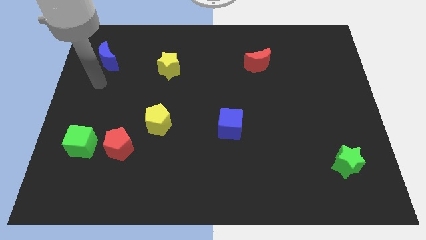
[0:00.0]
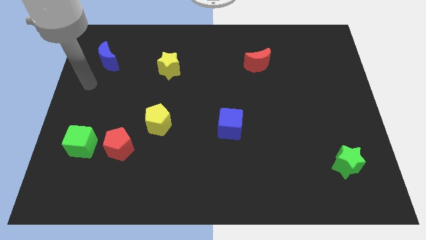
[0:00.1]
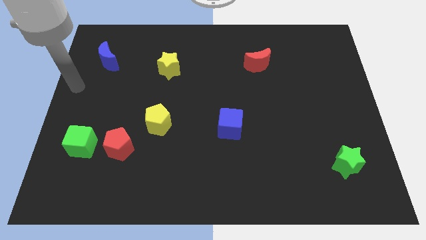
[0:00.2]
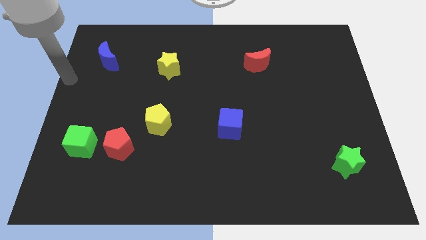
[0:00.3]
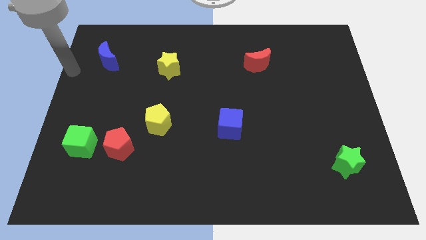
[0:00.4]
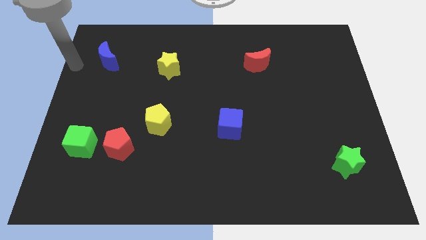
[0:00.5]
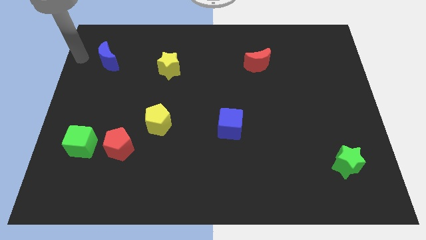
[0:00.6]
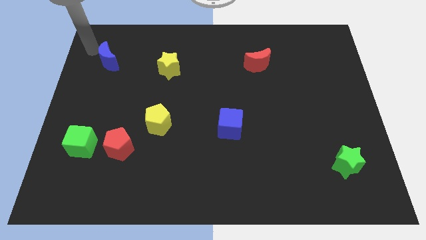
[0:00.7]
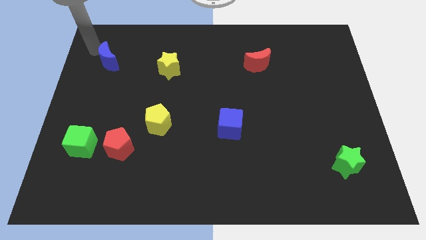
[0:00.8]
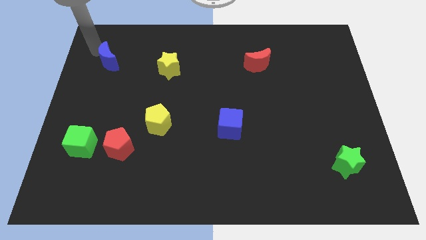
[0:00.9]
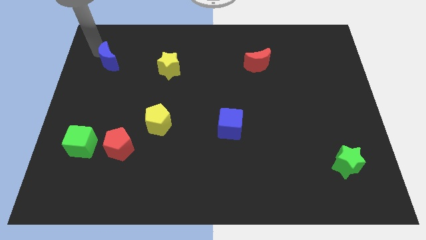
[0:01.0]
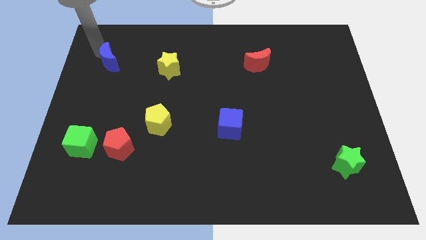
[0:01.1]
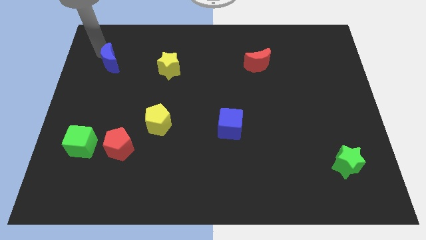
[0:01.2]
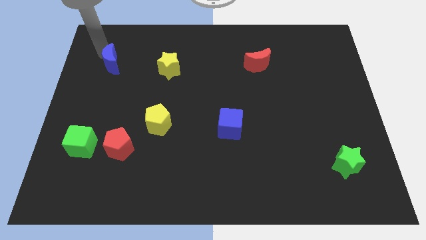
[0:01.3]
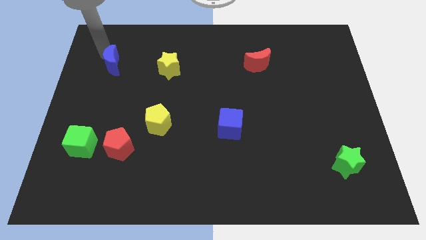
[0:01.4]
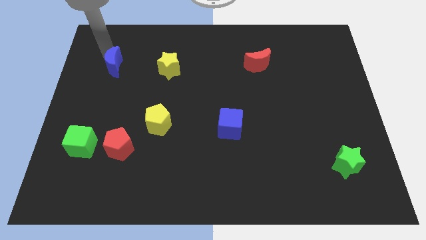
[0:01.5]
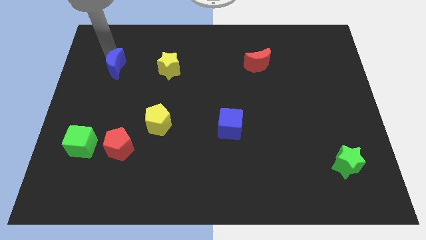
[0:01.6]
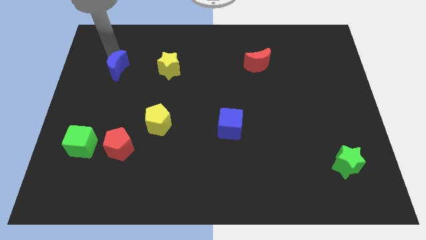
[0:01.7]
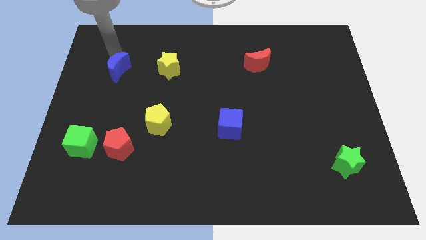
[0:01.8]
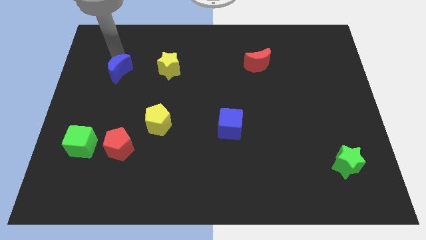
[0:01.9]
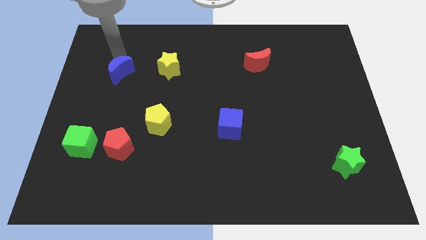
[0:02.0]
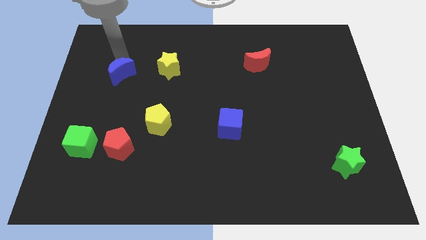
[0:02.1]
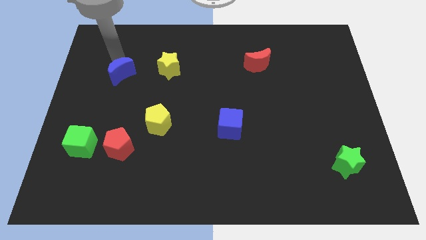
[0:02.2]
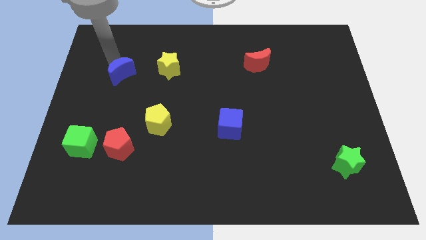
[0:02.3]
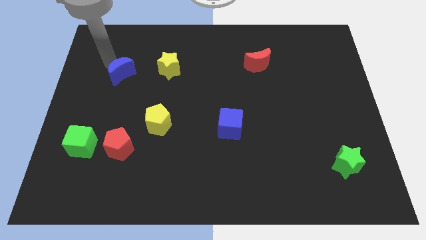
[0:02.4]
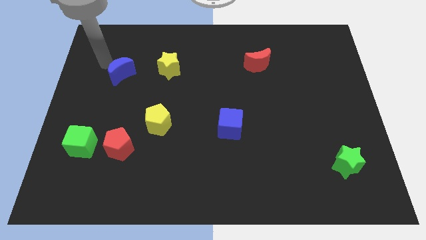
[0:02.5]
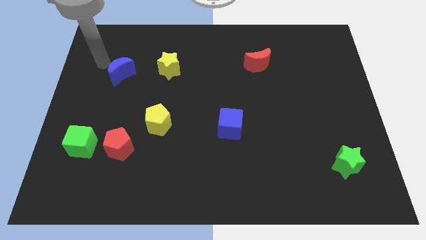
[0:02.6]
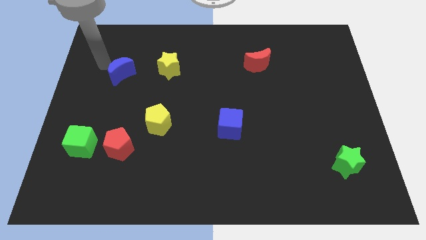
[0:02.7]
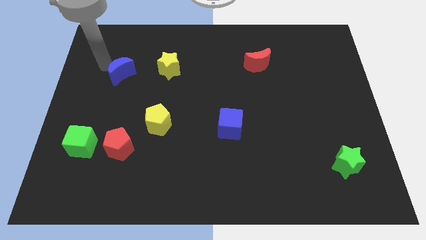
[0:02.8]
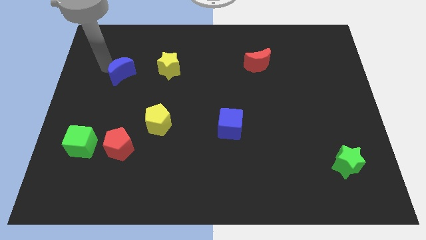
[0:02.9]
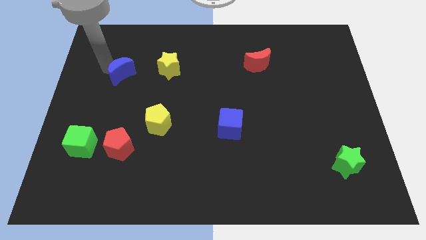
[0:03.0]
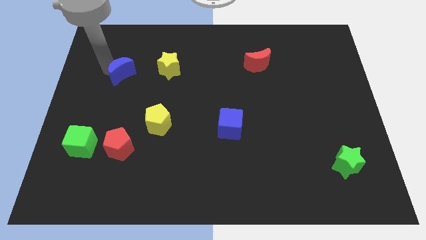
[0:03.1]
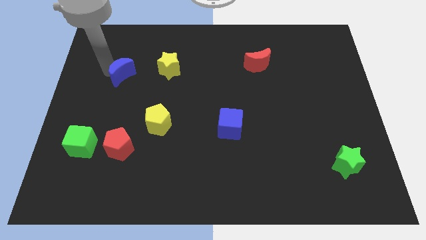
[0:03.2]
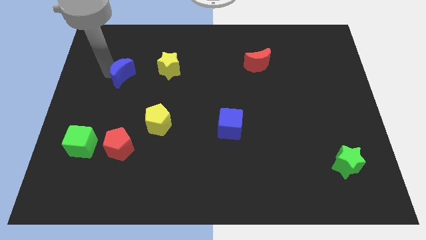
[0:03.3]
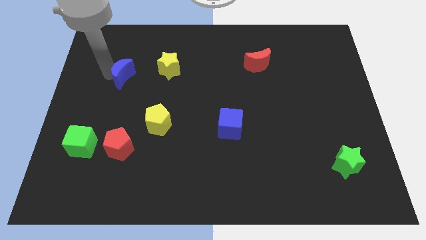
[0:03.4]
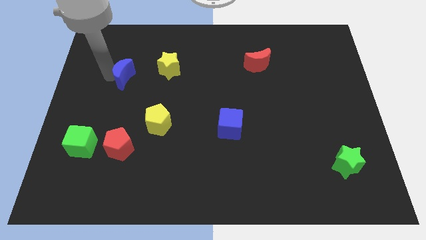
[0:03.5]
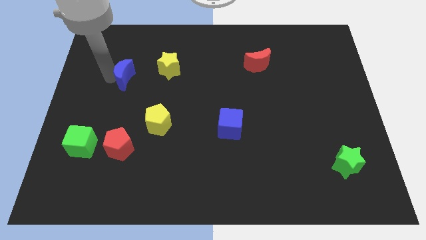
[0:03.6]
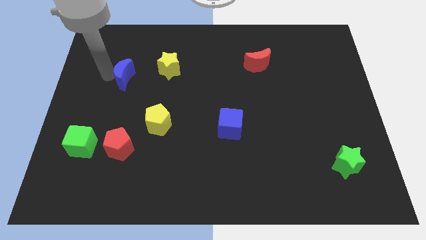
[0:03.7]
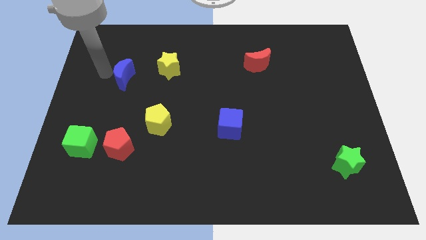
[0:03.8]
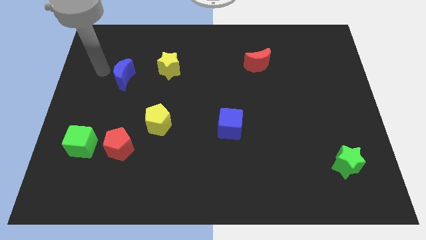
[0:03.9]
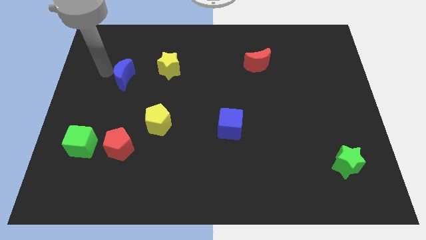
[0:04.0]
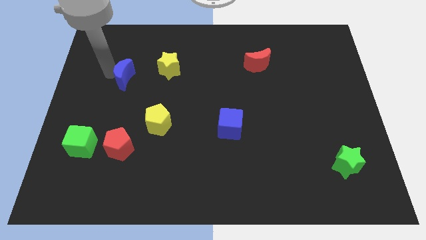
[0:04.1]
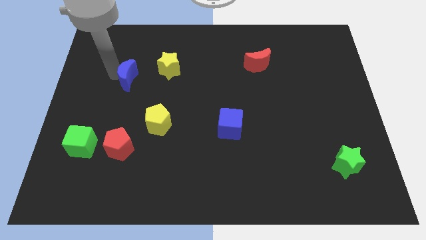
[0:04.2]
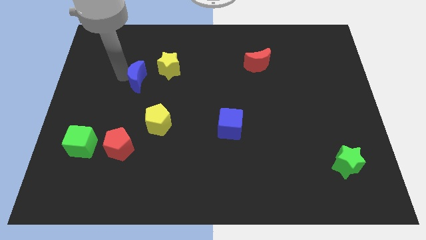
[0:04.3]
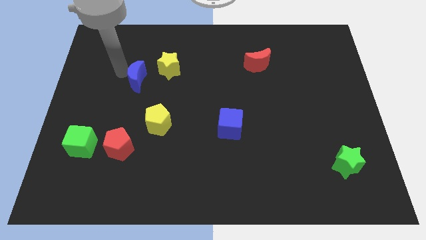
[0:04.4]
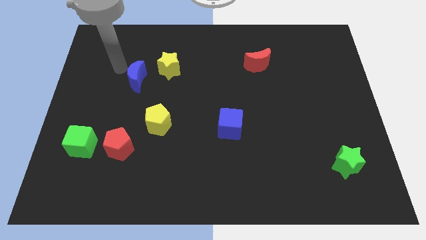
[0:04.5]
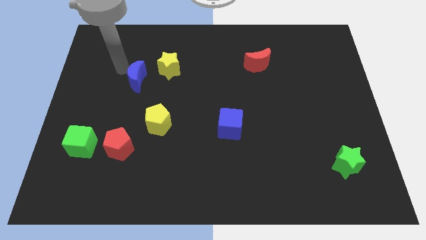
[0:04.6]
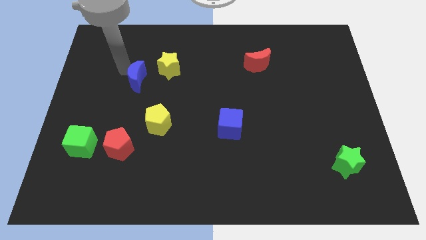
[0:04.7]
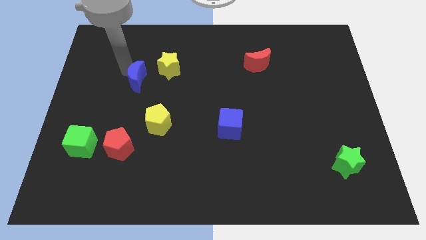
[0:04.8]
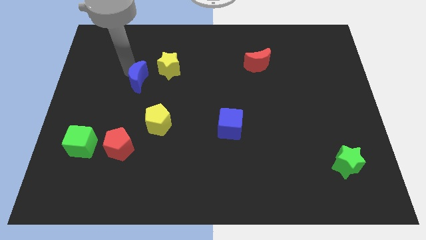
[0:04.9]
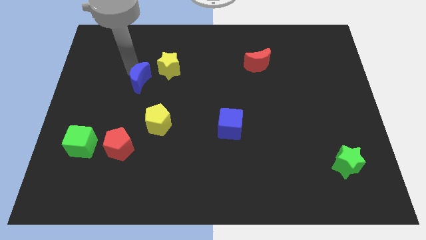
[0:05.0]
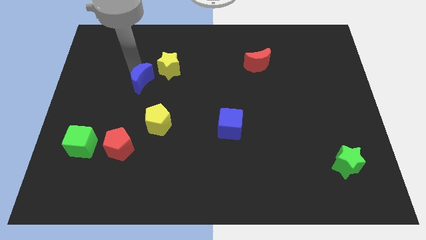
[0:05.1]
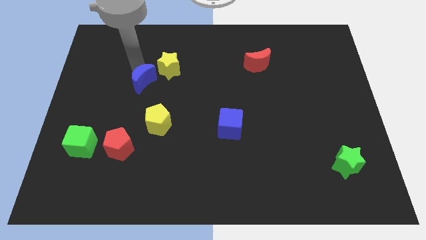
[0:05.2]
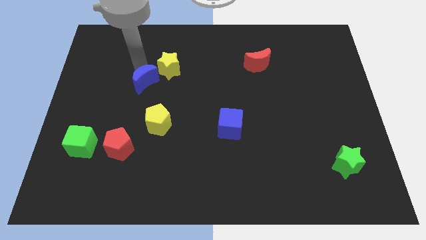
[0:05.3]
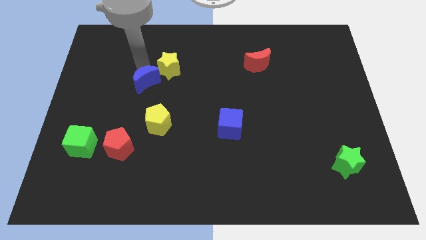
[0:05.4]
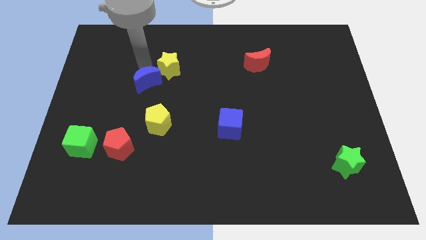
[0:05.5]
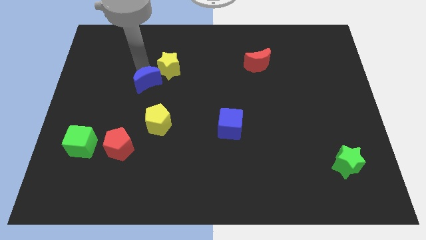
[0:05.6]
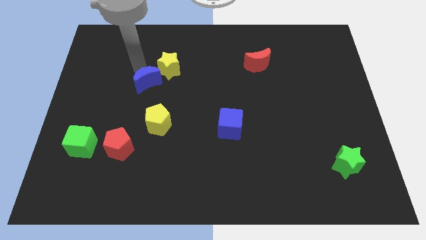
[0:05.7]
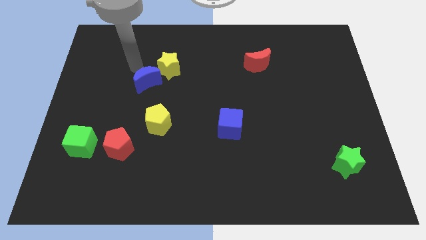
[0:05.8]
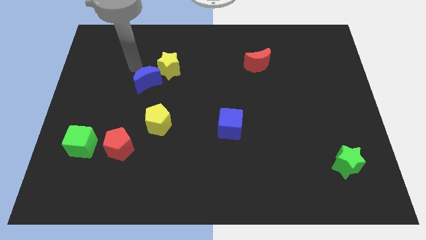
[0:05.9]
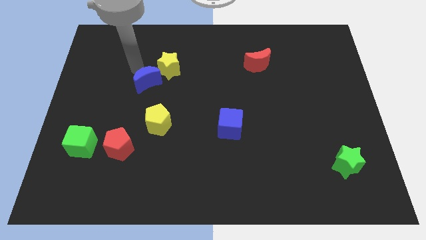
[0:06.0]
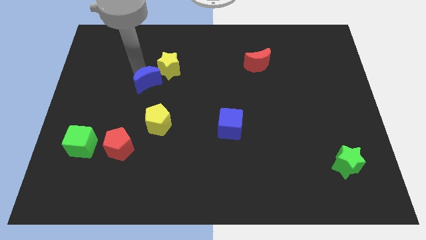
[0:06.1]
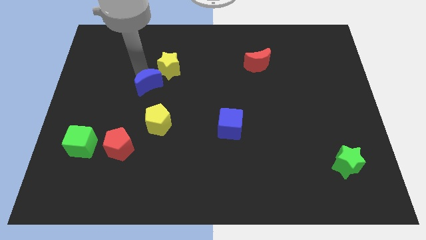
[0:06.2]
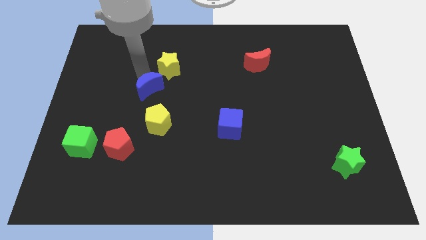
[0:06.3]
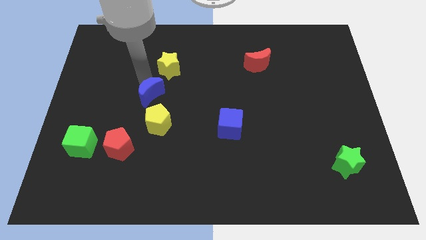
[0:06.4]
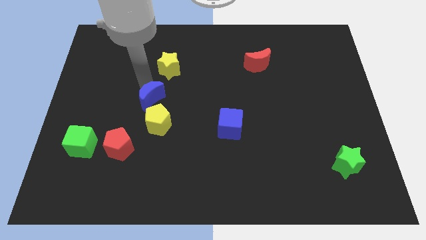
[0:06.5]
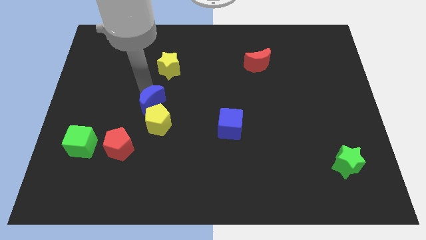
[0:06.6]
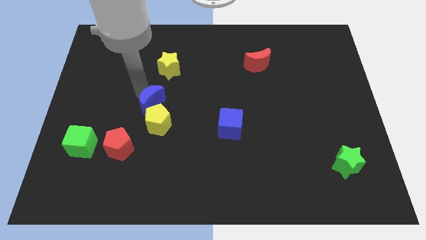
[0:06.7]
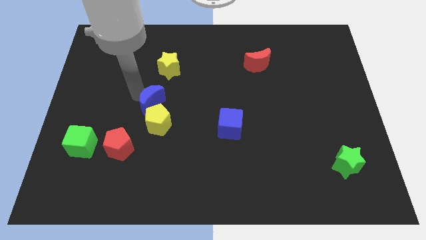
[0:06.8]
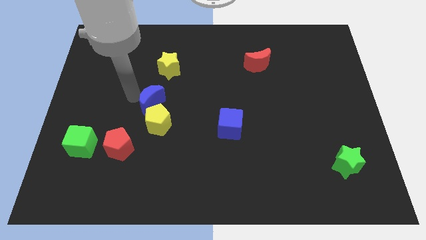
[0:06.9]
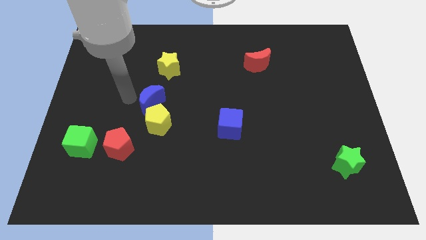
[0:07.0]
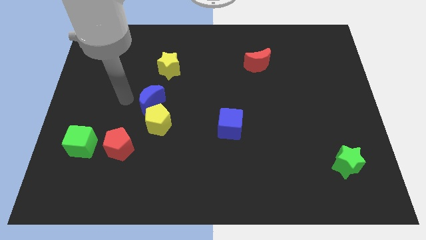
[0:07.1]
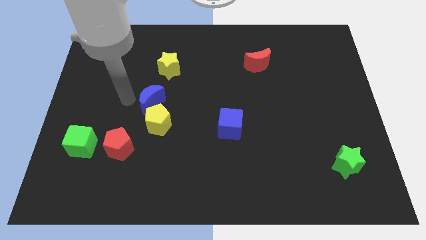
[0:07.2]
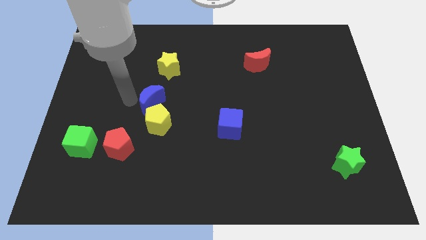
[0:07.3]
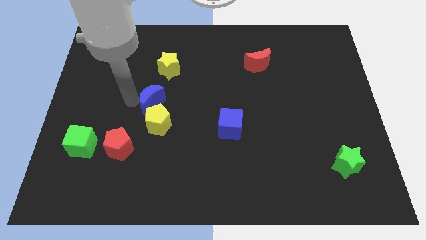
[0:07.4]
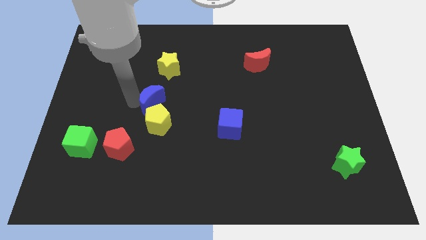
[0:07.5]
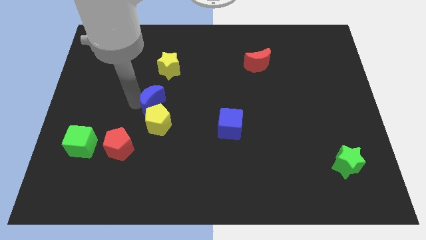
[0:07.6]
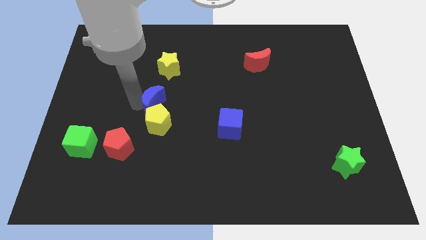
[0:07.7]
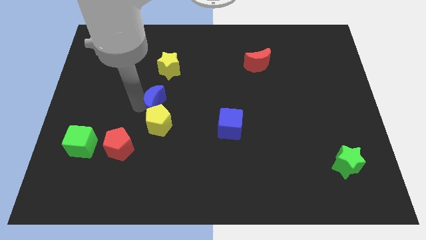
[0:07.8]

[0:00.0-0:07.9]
move the blue moon downwards and then to the right
